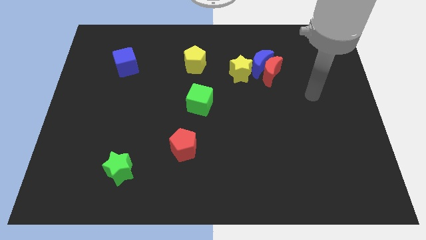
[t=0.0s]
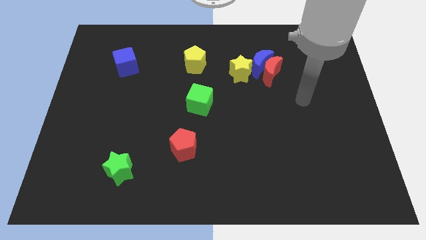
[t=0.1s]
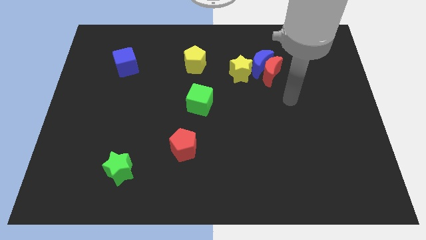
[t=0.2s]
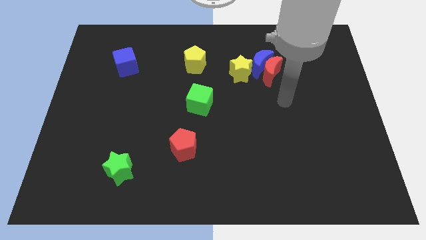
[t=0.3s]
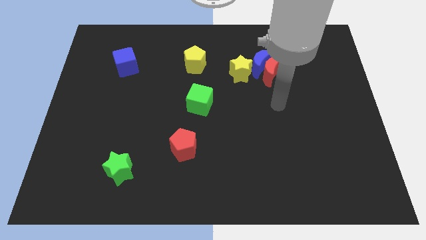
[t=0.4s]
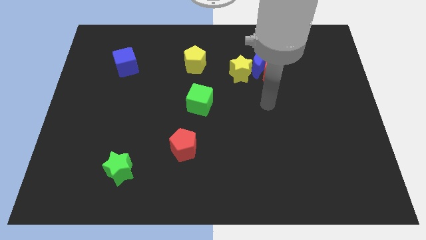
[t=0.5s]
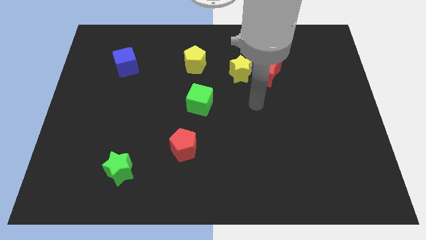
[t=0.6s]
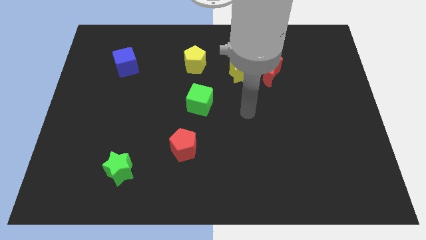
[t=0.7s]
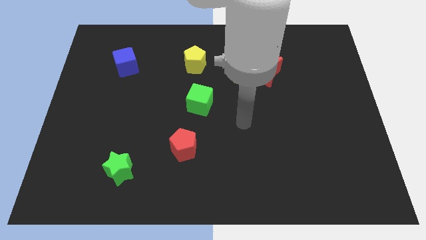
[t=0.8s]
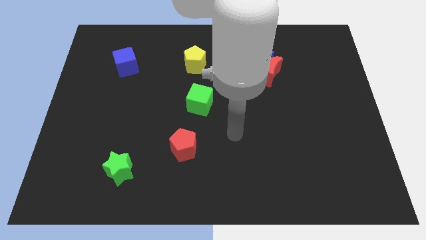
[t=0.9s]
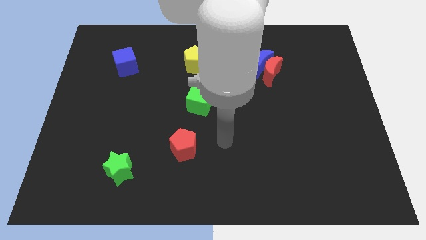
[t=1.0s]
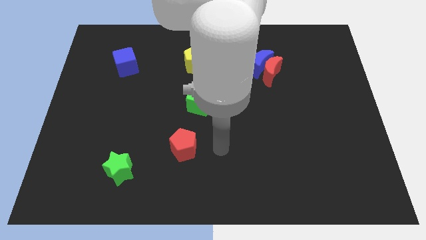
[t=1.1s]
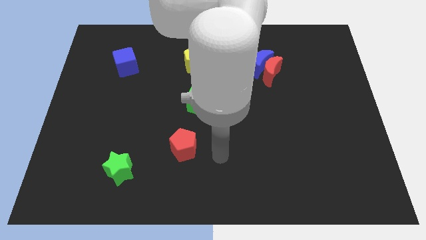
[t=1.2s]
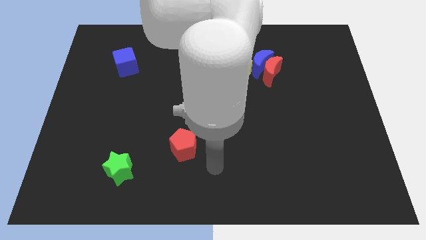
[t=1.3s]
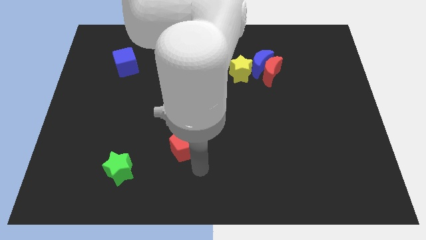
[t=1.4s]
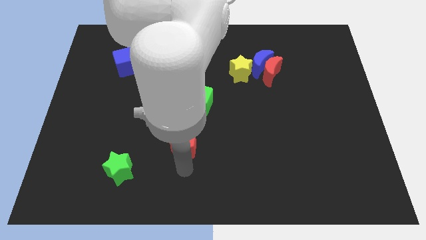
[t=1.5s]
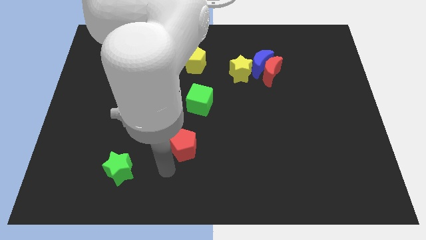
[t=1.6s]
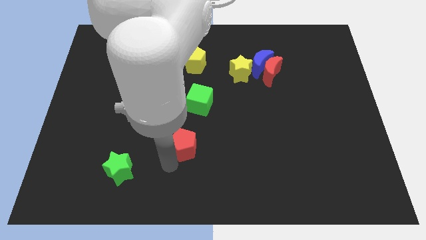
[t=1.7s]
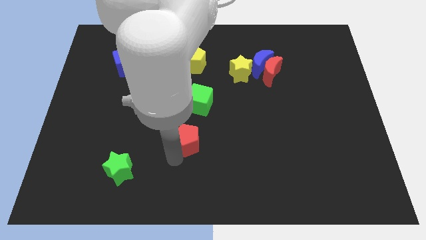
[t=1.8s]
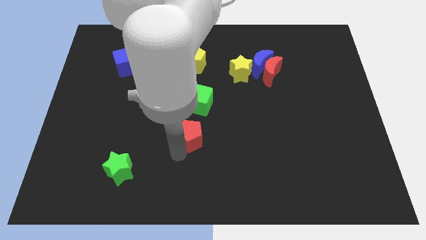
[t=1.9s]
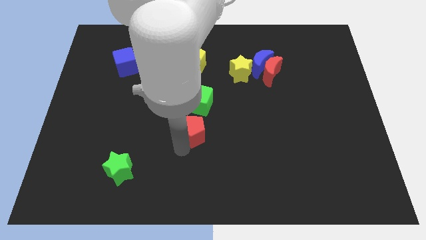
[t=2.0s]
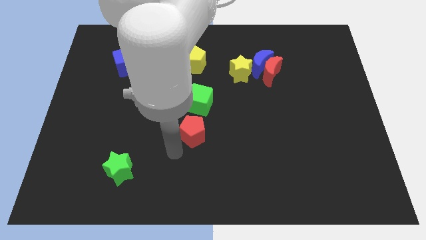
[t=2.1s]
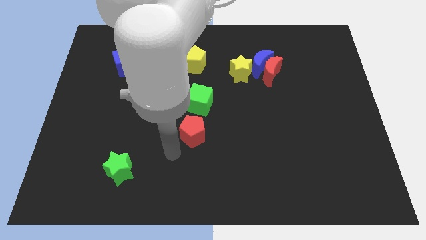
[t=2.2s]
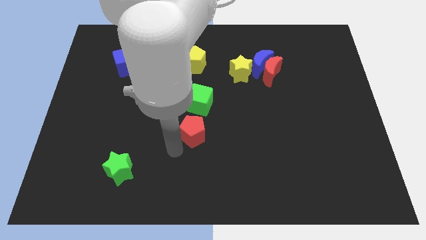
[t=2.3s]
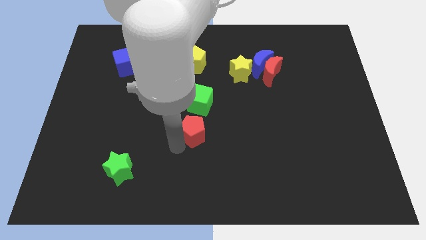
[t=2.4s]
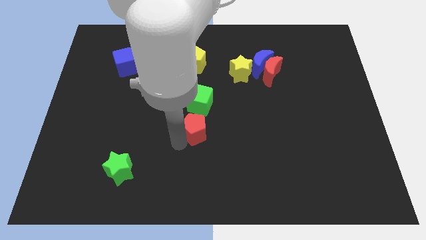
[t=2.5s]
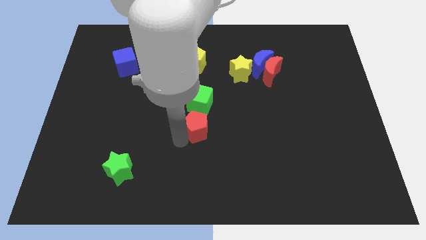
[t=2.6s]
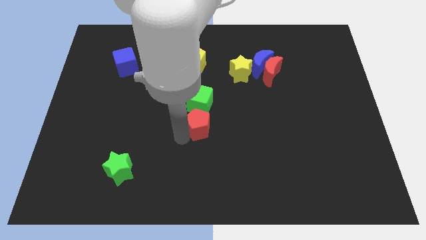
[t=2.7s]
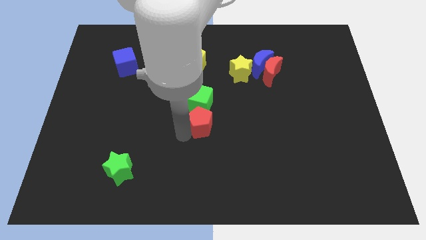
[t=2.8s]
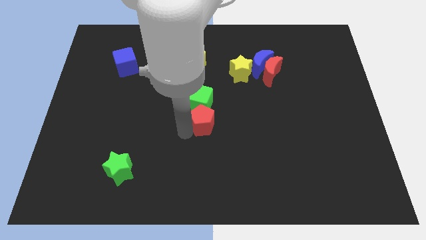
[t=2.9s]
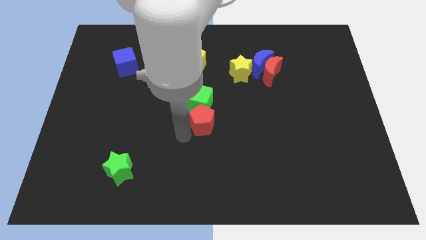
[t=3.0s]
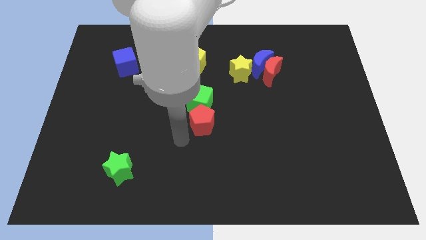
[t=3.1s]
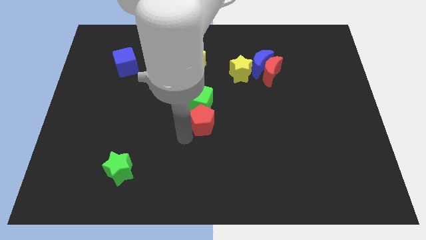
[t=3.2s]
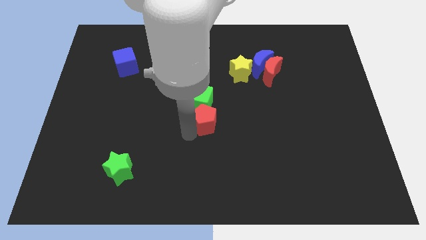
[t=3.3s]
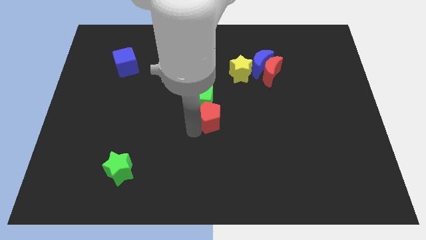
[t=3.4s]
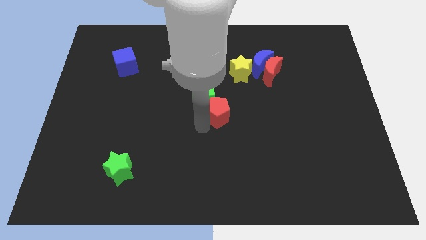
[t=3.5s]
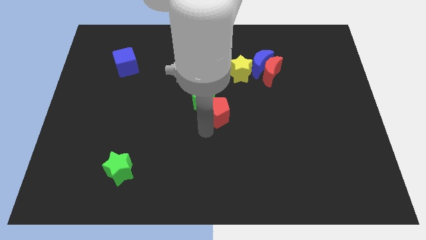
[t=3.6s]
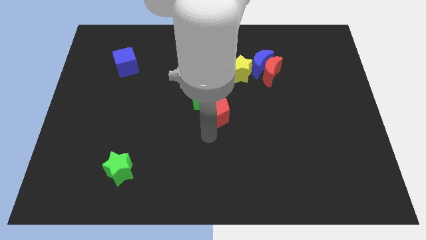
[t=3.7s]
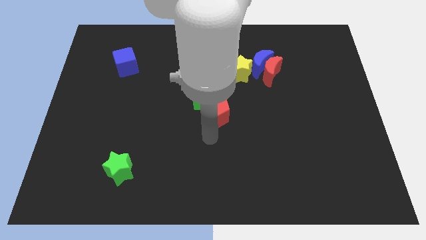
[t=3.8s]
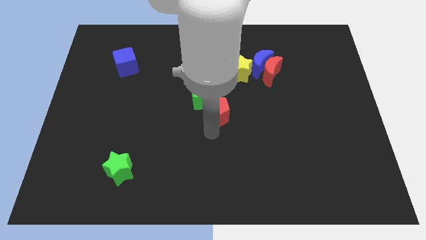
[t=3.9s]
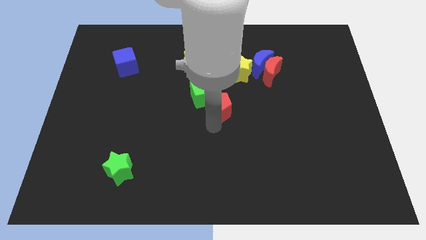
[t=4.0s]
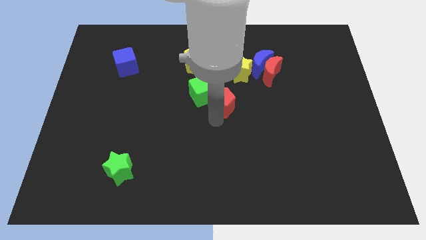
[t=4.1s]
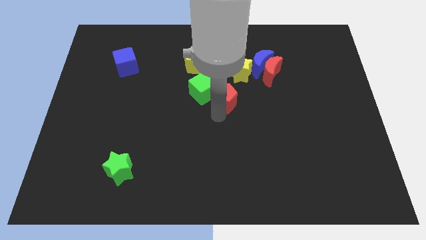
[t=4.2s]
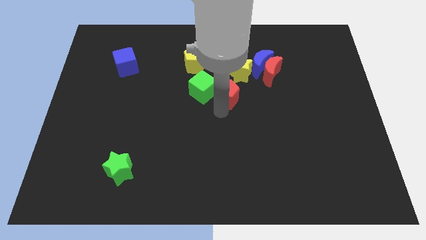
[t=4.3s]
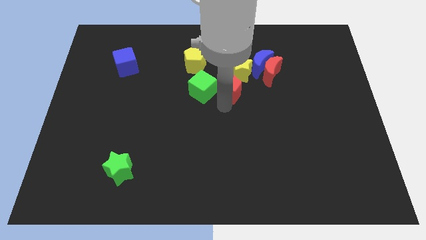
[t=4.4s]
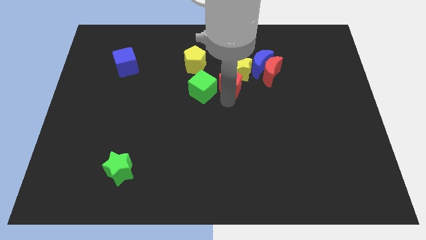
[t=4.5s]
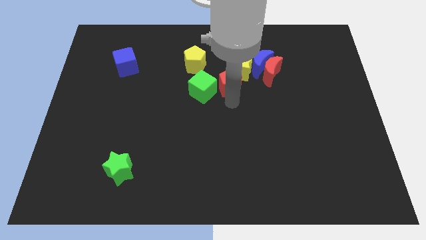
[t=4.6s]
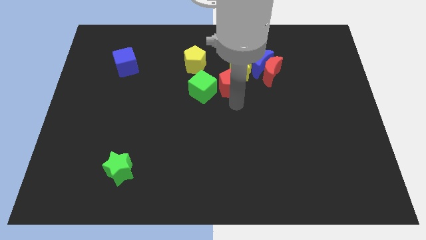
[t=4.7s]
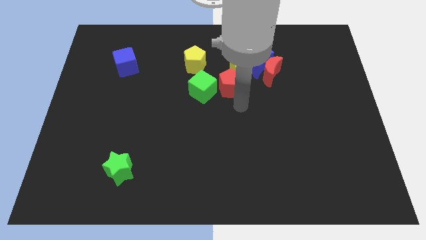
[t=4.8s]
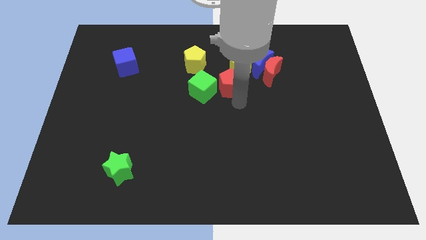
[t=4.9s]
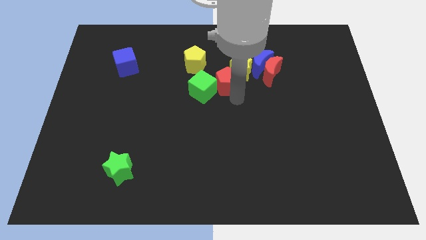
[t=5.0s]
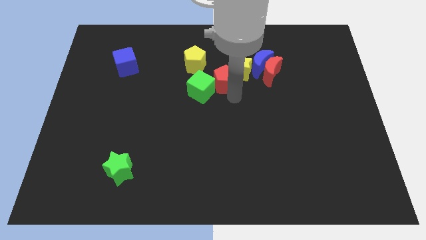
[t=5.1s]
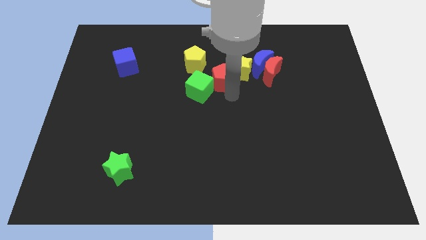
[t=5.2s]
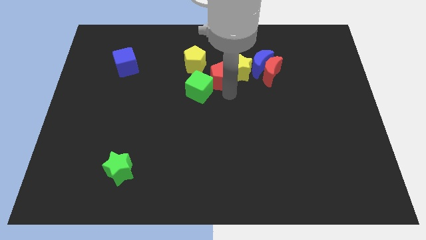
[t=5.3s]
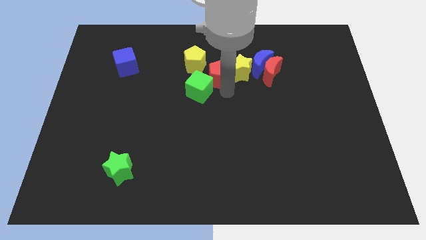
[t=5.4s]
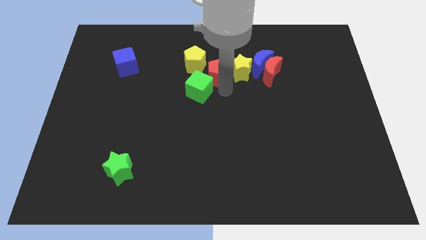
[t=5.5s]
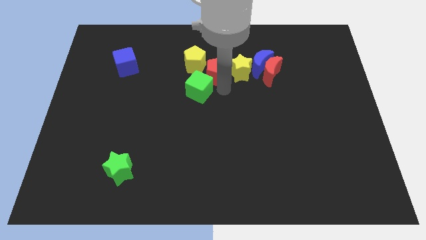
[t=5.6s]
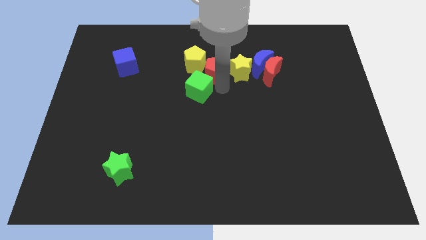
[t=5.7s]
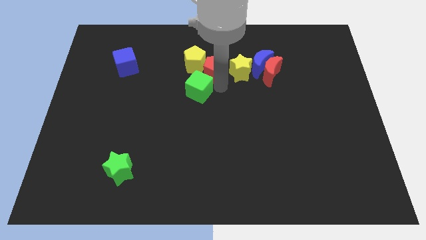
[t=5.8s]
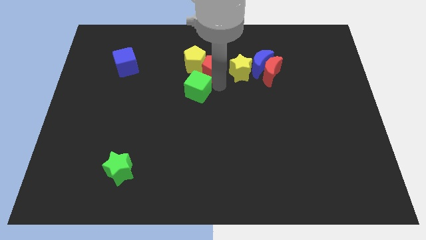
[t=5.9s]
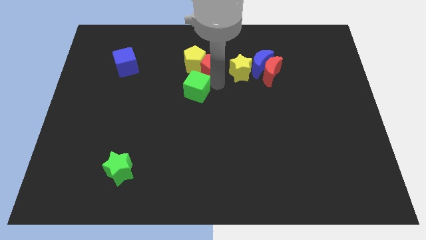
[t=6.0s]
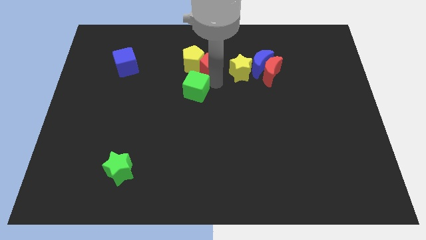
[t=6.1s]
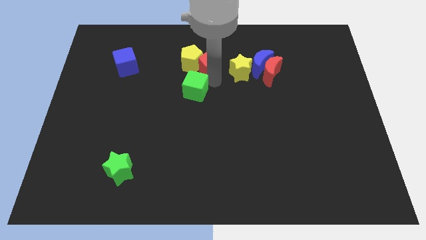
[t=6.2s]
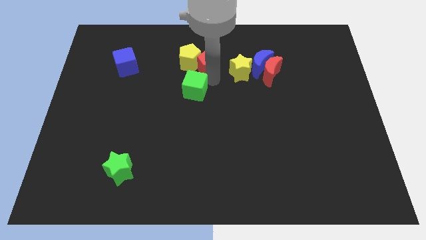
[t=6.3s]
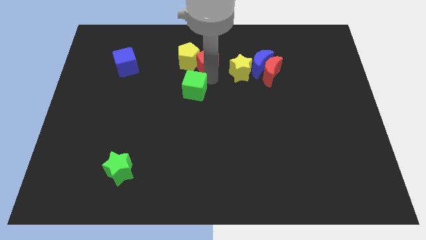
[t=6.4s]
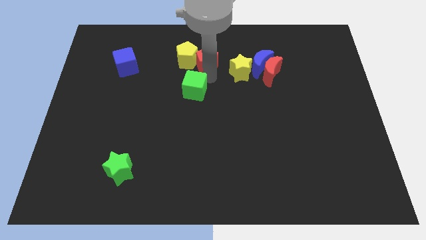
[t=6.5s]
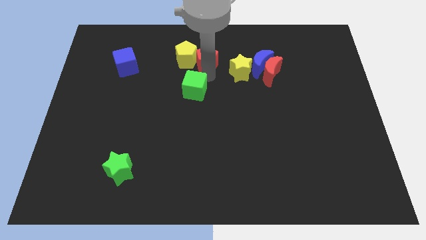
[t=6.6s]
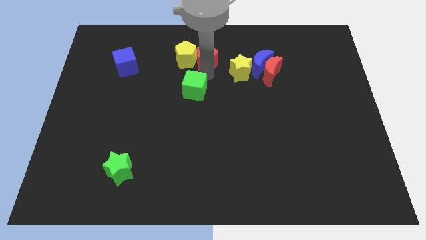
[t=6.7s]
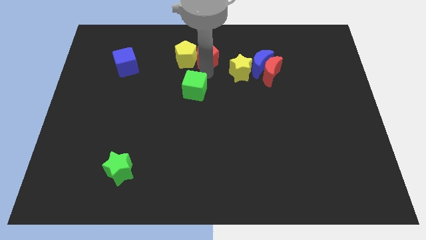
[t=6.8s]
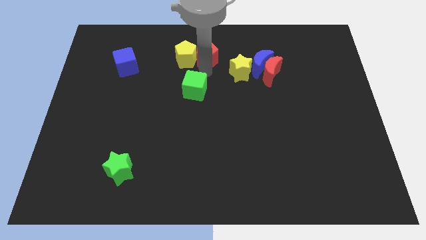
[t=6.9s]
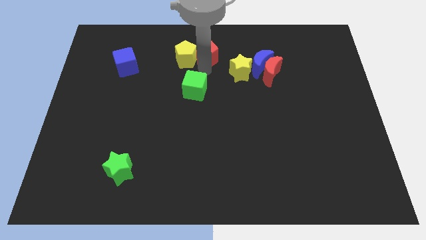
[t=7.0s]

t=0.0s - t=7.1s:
push the red pentagon to the top side
